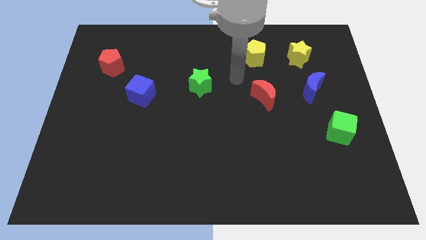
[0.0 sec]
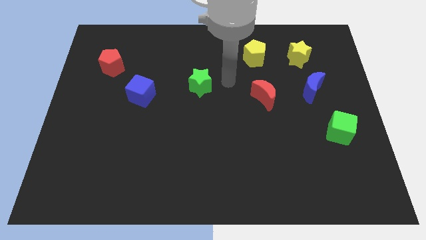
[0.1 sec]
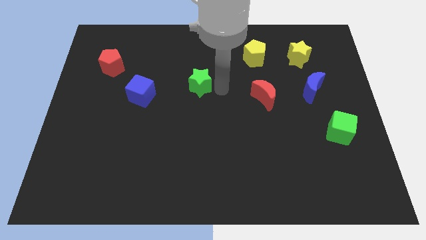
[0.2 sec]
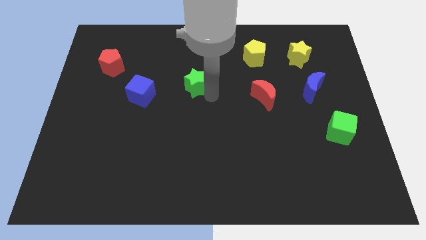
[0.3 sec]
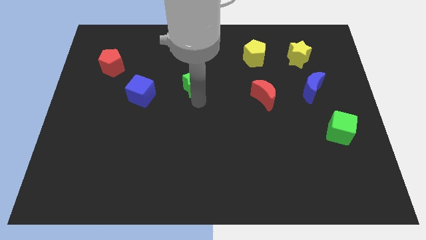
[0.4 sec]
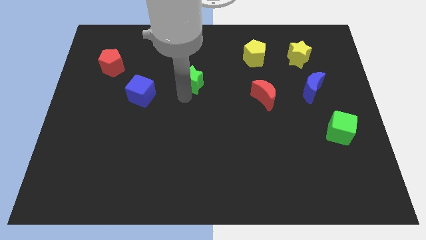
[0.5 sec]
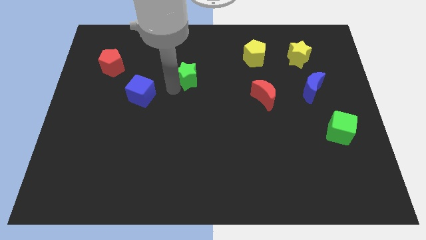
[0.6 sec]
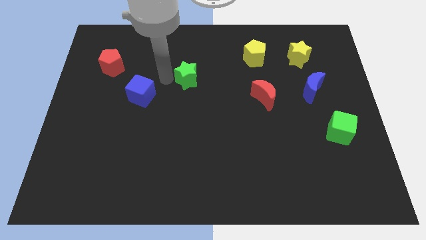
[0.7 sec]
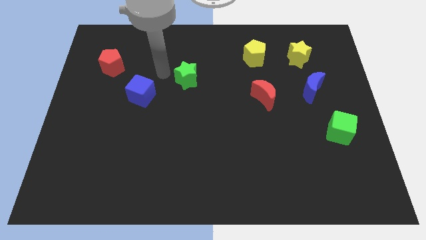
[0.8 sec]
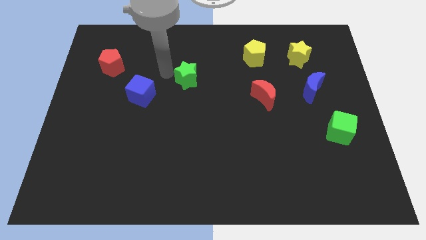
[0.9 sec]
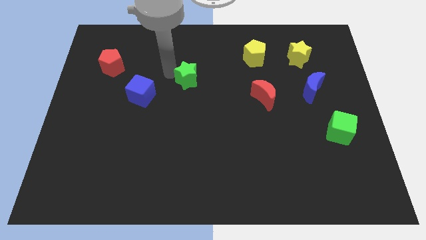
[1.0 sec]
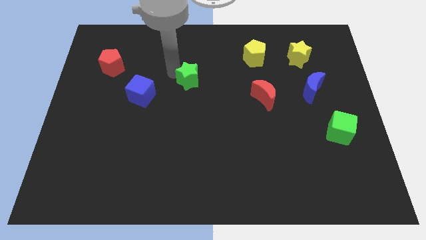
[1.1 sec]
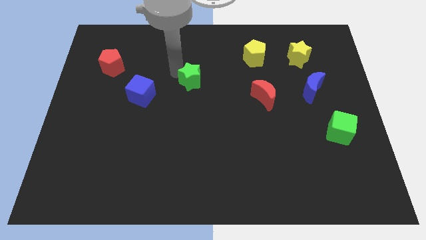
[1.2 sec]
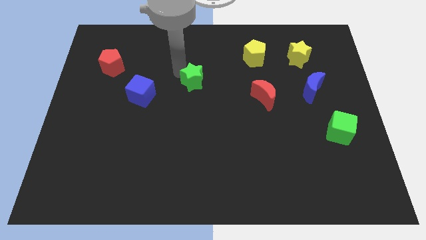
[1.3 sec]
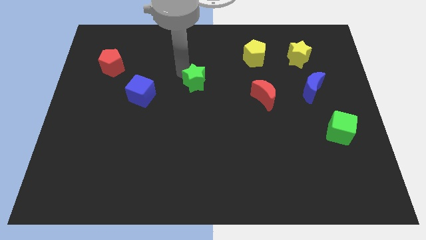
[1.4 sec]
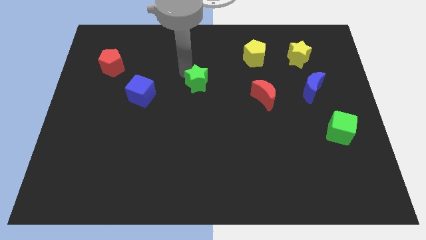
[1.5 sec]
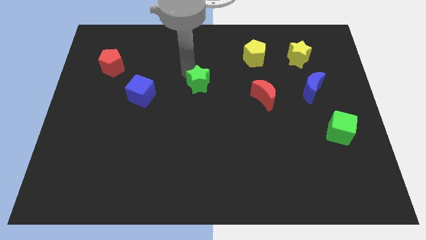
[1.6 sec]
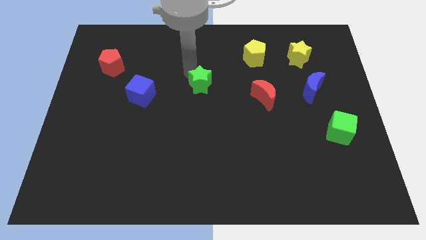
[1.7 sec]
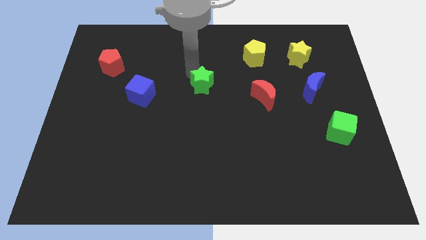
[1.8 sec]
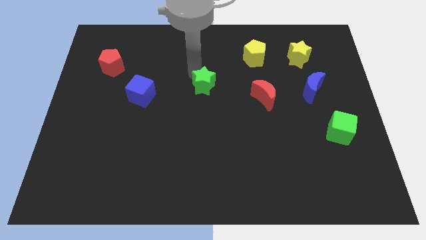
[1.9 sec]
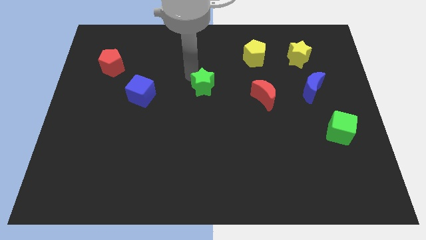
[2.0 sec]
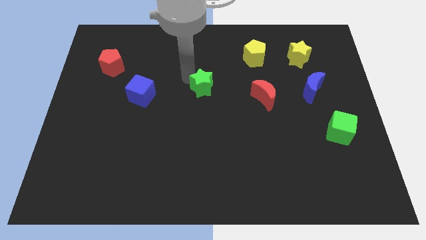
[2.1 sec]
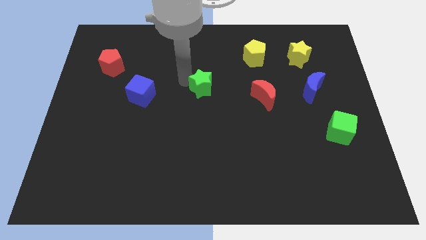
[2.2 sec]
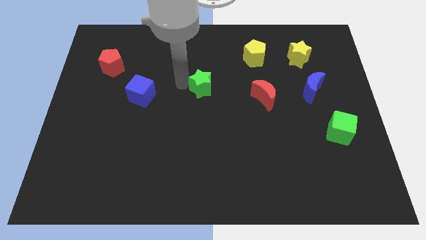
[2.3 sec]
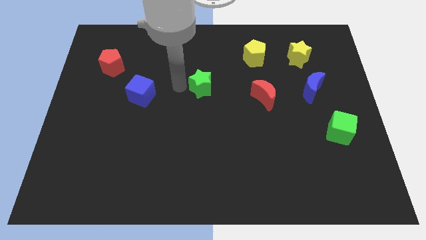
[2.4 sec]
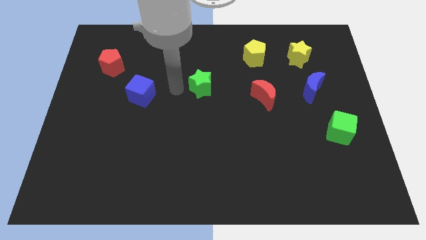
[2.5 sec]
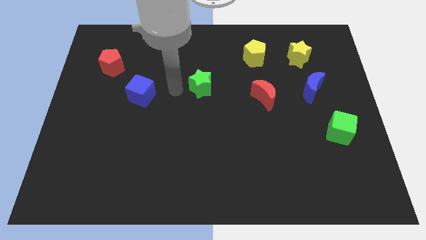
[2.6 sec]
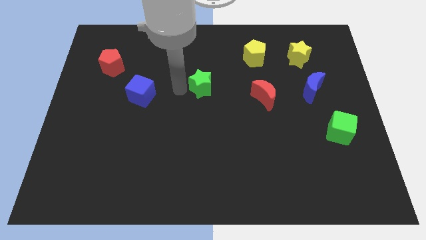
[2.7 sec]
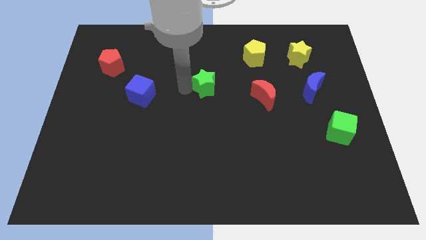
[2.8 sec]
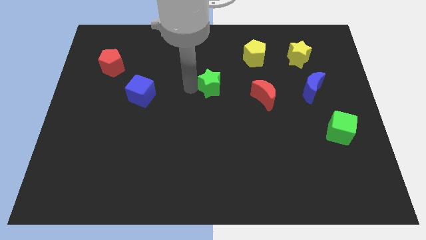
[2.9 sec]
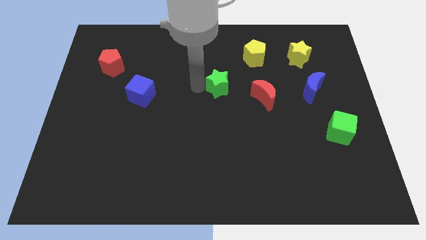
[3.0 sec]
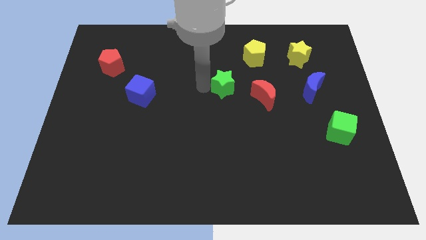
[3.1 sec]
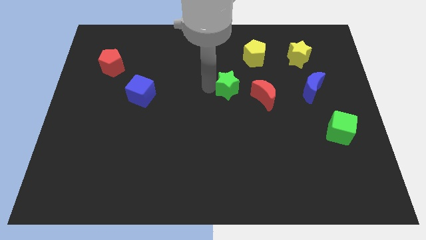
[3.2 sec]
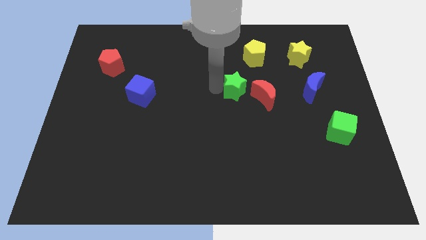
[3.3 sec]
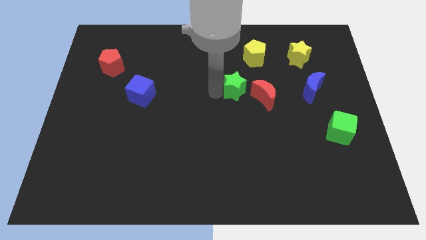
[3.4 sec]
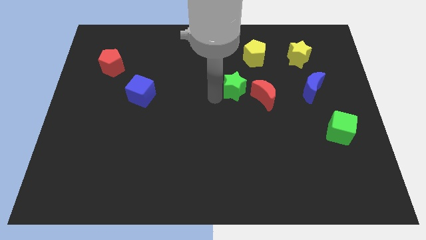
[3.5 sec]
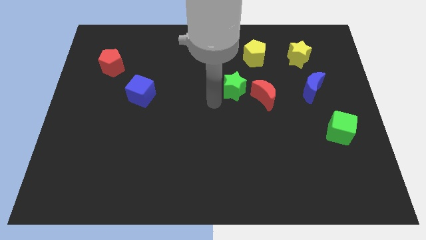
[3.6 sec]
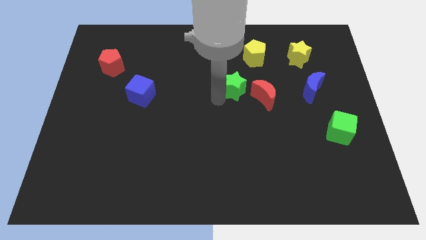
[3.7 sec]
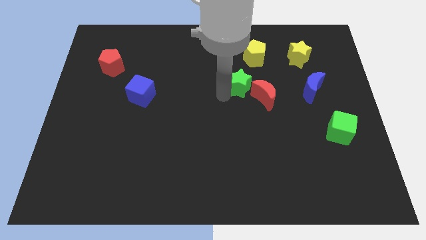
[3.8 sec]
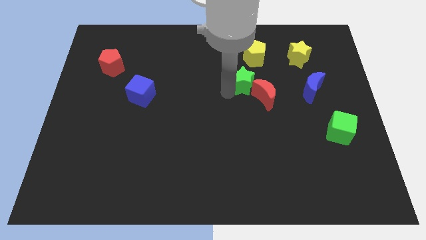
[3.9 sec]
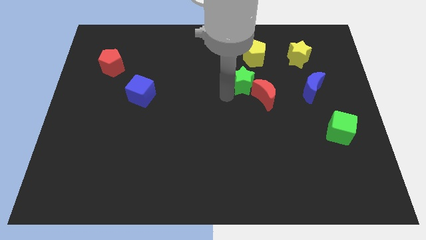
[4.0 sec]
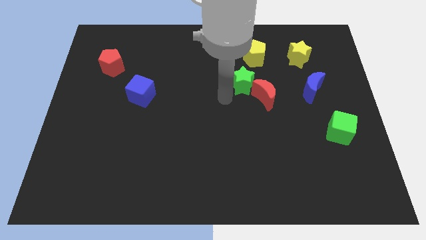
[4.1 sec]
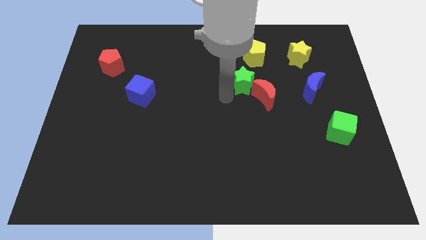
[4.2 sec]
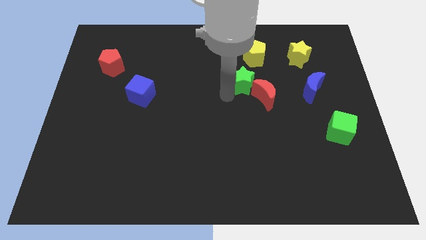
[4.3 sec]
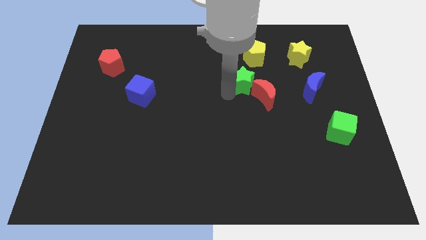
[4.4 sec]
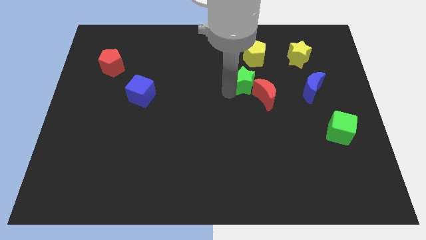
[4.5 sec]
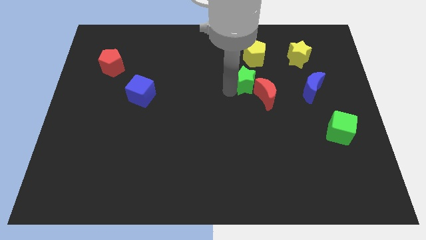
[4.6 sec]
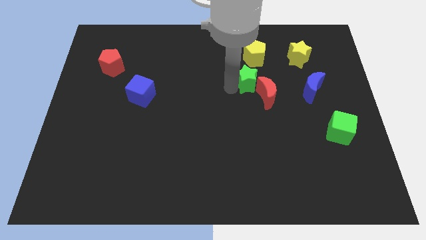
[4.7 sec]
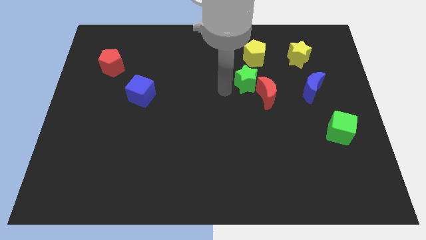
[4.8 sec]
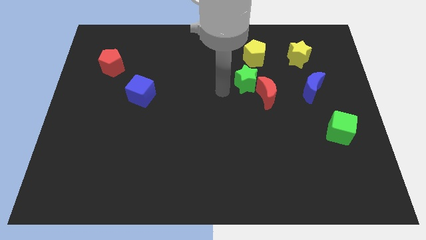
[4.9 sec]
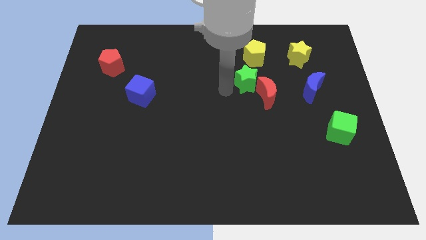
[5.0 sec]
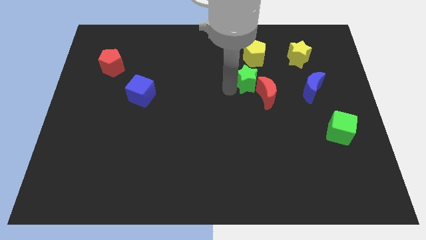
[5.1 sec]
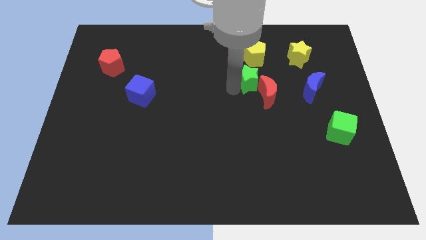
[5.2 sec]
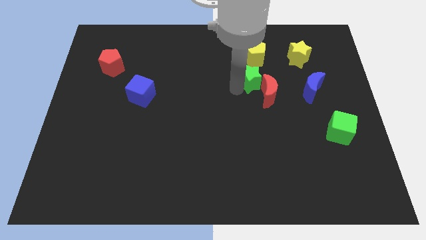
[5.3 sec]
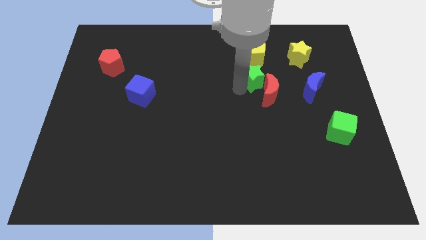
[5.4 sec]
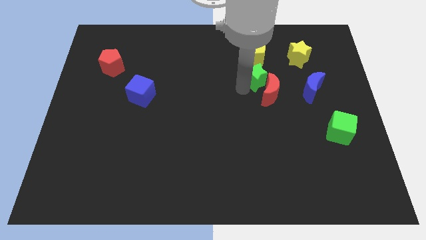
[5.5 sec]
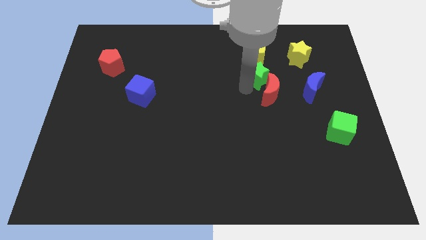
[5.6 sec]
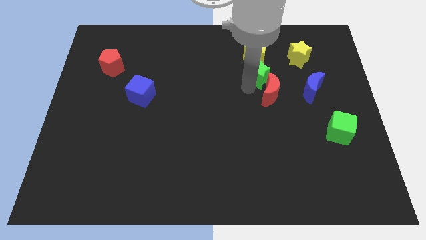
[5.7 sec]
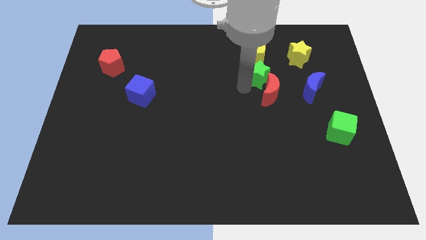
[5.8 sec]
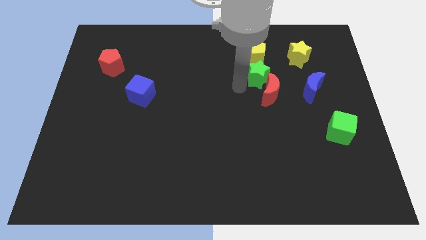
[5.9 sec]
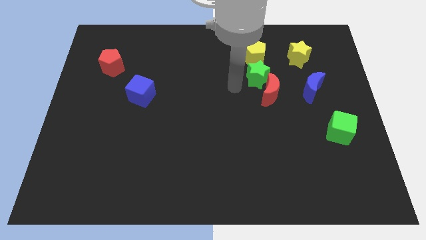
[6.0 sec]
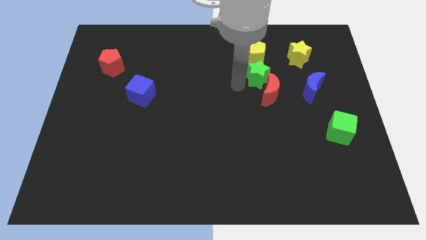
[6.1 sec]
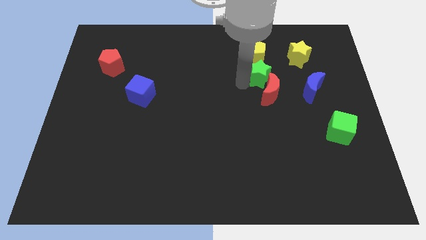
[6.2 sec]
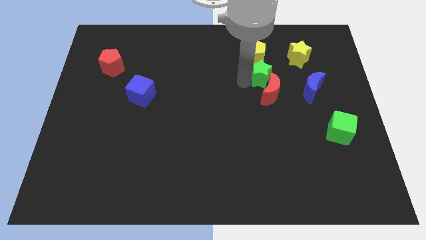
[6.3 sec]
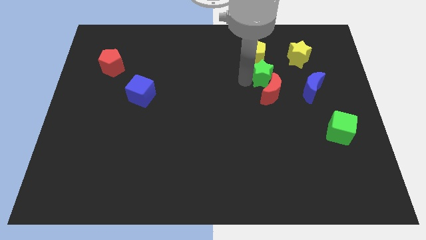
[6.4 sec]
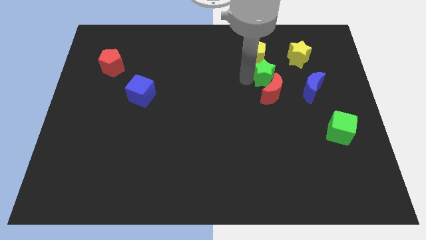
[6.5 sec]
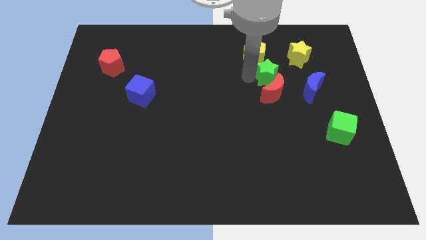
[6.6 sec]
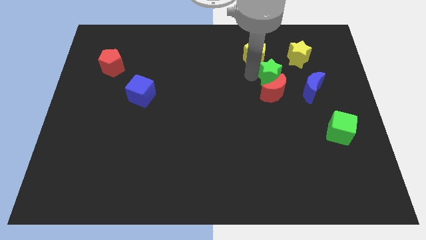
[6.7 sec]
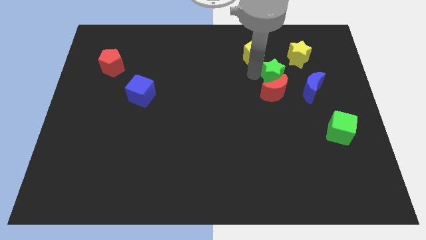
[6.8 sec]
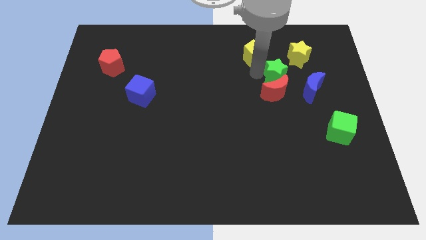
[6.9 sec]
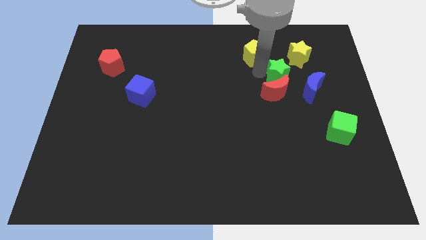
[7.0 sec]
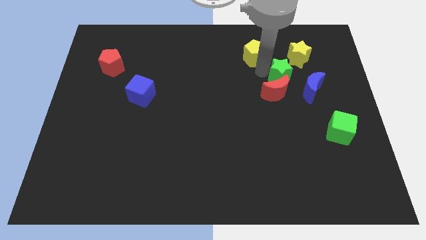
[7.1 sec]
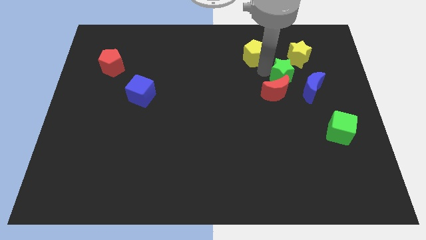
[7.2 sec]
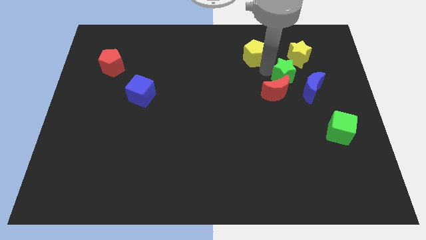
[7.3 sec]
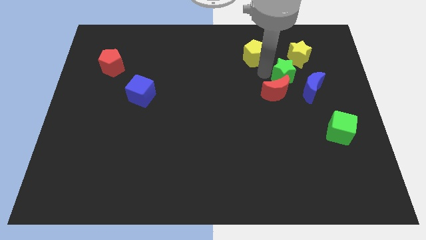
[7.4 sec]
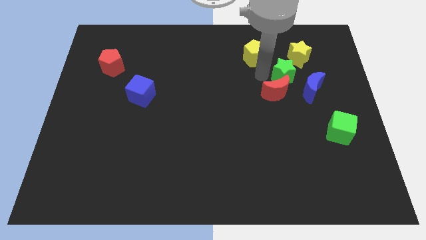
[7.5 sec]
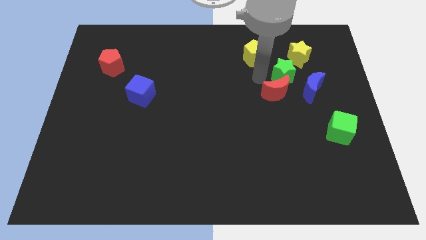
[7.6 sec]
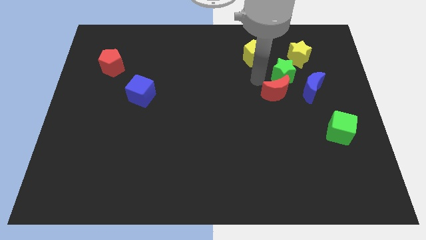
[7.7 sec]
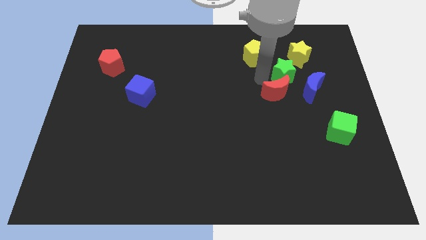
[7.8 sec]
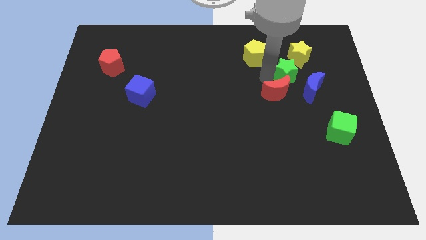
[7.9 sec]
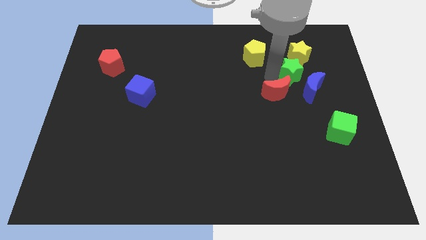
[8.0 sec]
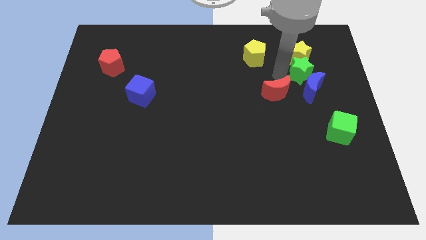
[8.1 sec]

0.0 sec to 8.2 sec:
put the green star to the bottom right side of the yellow star
